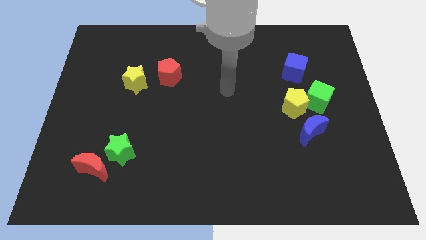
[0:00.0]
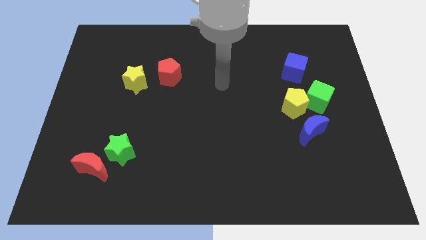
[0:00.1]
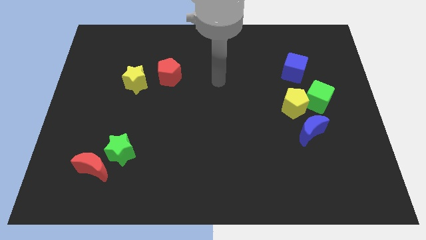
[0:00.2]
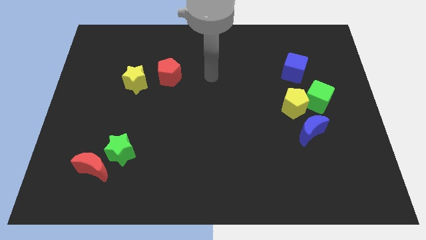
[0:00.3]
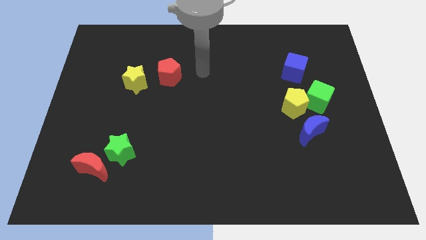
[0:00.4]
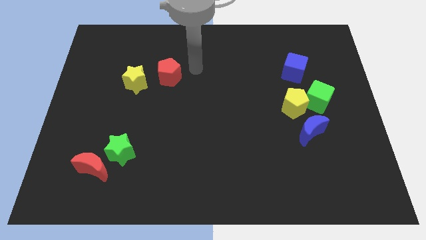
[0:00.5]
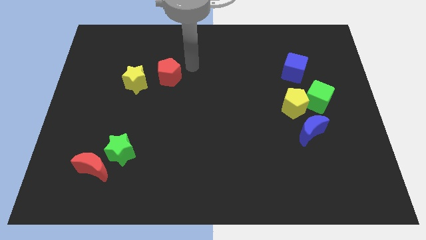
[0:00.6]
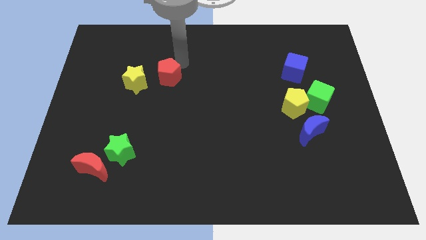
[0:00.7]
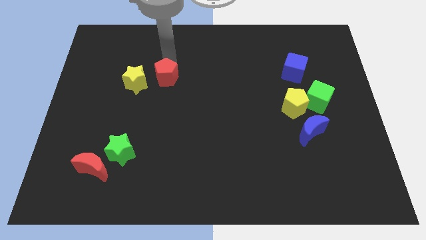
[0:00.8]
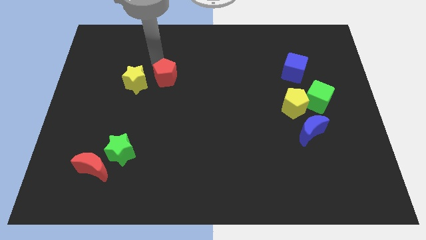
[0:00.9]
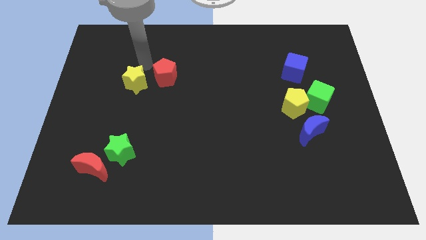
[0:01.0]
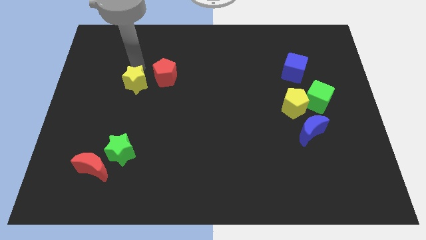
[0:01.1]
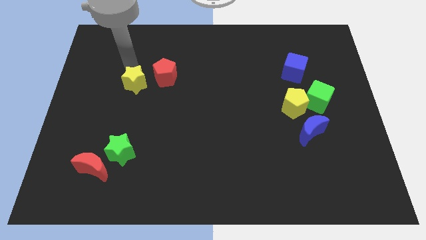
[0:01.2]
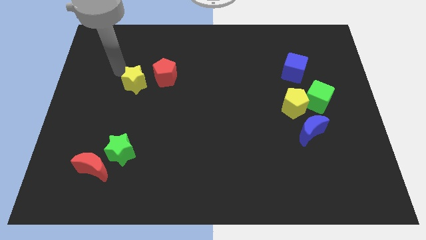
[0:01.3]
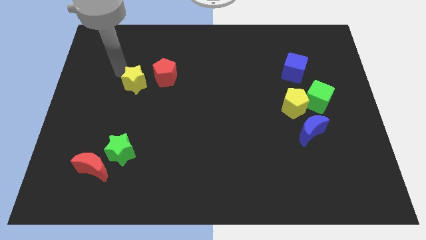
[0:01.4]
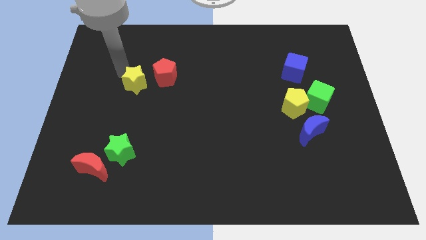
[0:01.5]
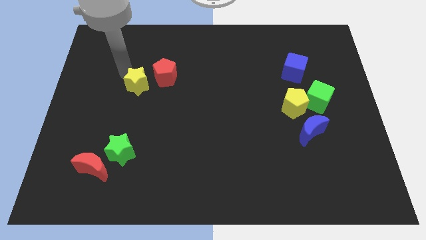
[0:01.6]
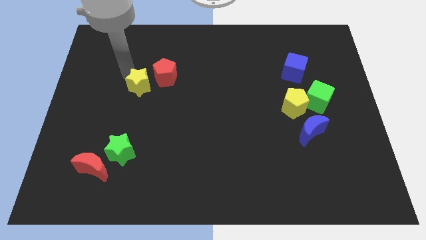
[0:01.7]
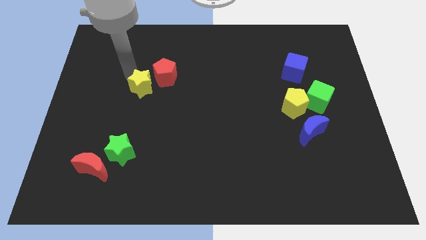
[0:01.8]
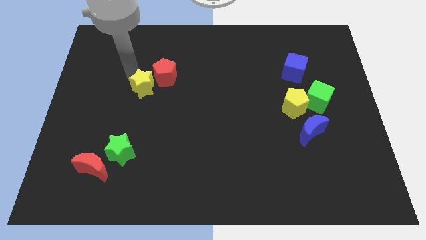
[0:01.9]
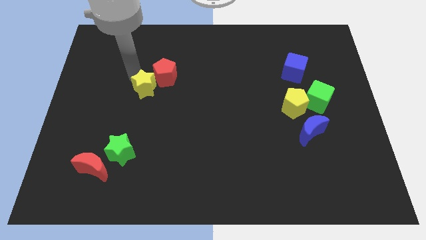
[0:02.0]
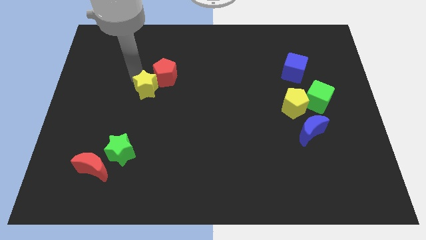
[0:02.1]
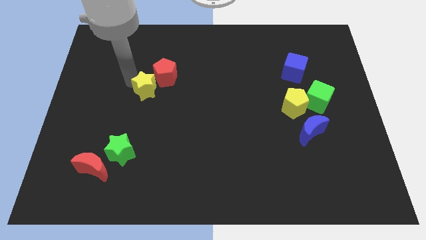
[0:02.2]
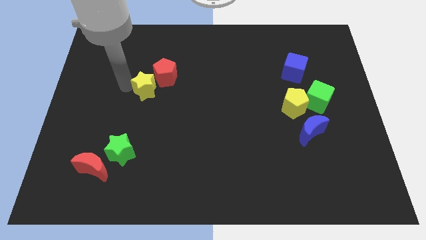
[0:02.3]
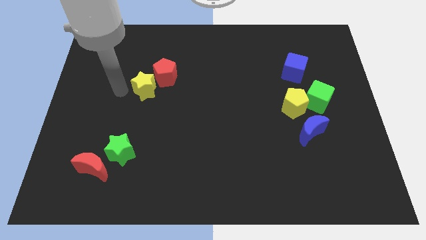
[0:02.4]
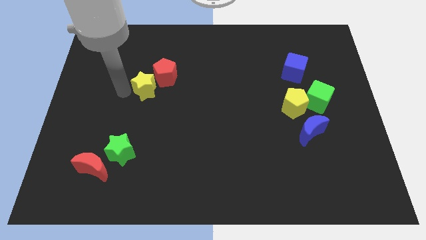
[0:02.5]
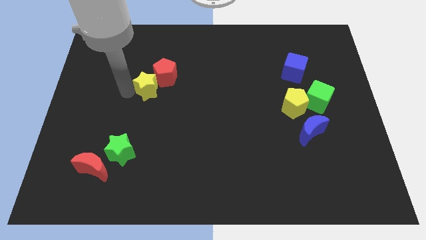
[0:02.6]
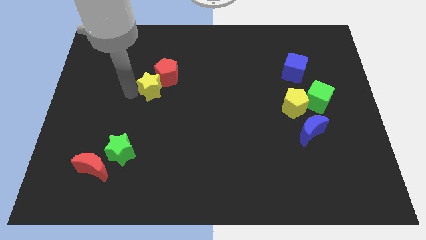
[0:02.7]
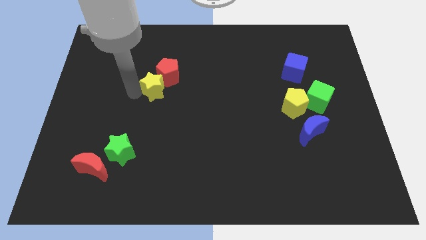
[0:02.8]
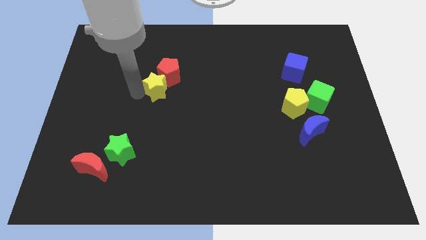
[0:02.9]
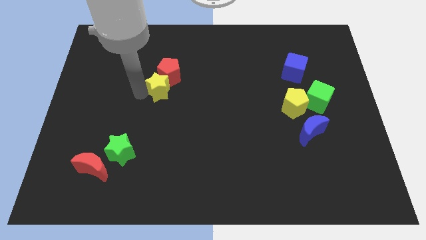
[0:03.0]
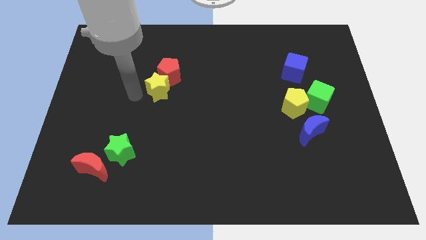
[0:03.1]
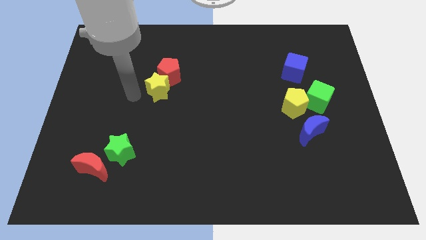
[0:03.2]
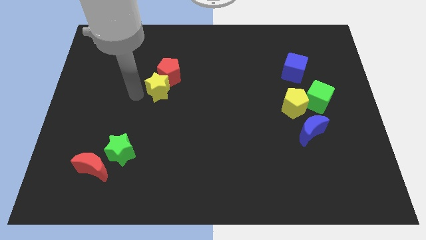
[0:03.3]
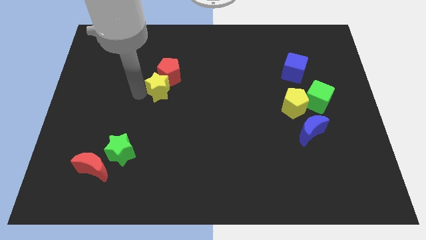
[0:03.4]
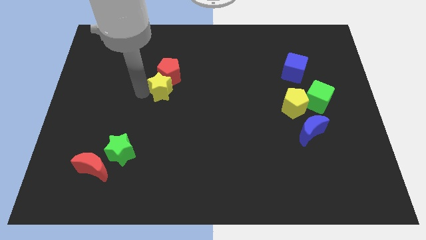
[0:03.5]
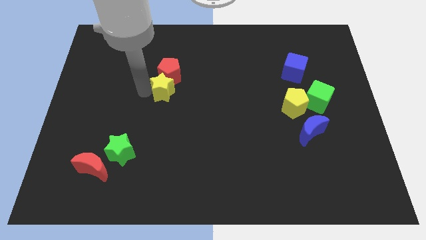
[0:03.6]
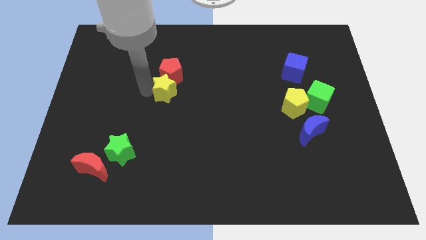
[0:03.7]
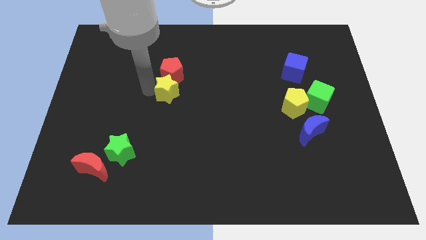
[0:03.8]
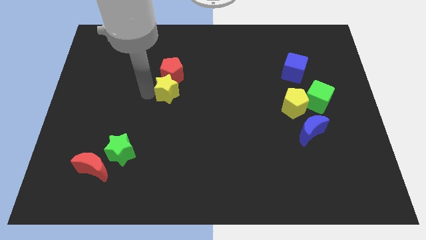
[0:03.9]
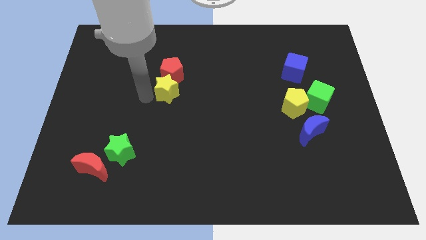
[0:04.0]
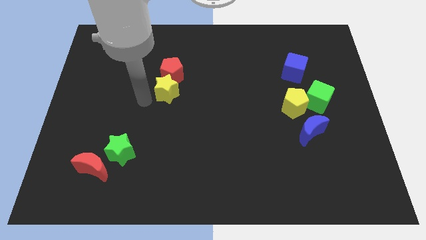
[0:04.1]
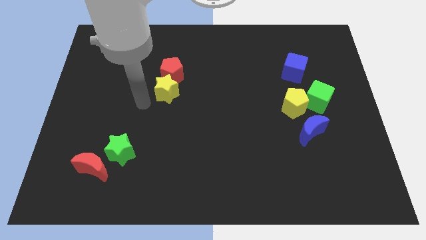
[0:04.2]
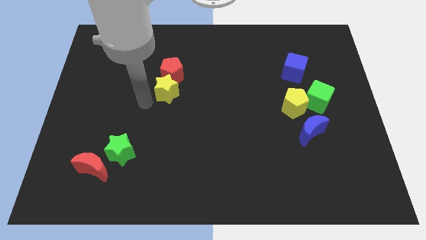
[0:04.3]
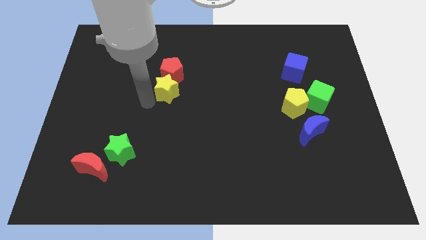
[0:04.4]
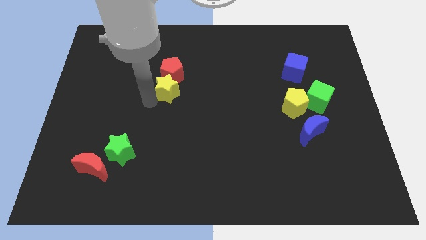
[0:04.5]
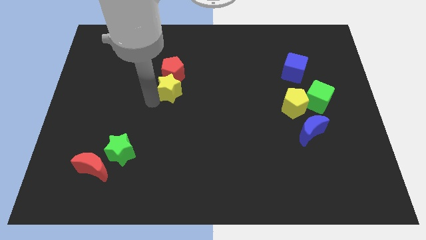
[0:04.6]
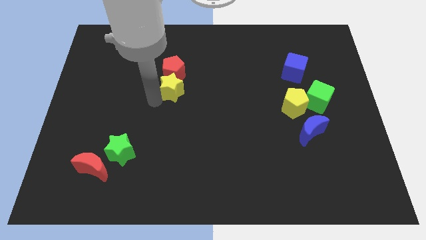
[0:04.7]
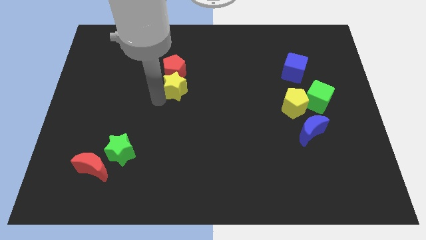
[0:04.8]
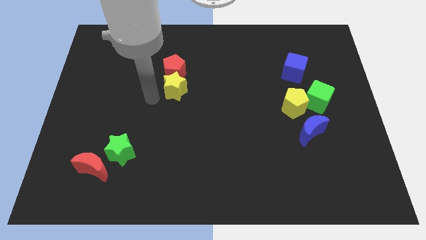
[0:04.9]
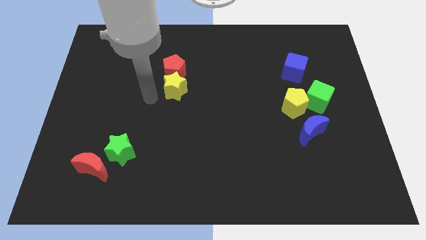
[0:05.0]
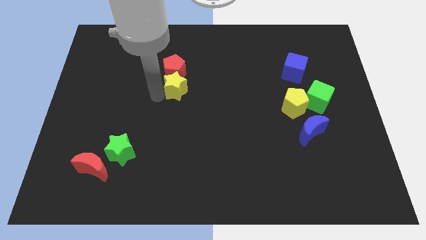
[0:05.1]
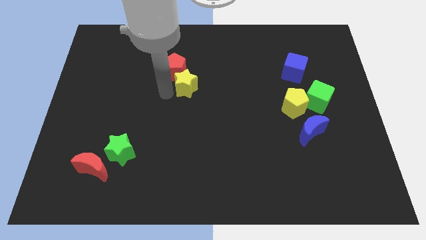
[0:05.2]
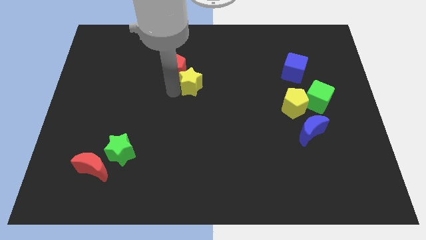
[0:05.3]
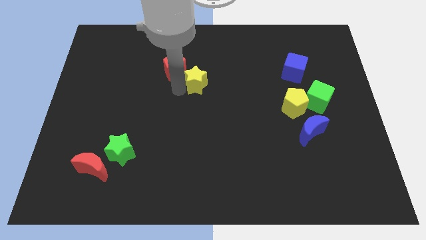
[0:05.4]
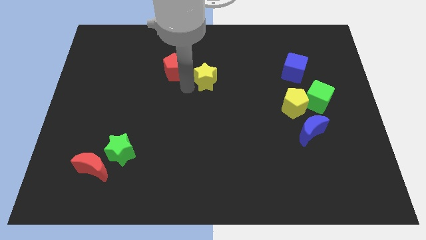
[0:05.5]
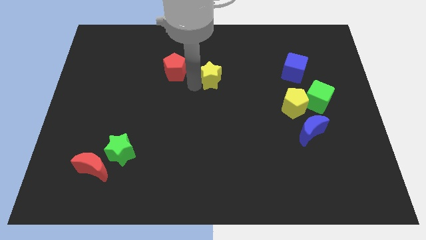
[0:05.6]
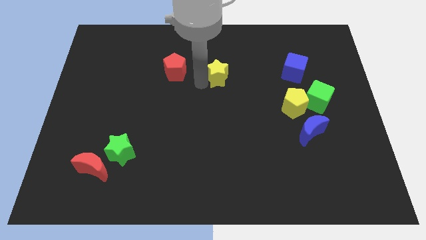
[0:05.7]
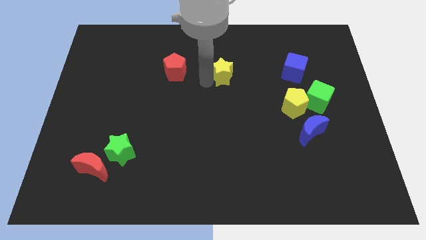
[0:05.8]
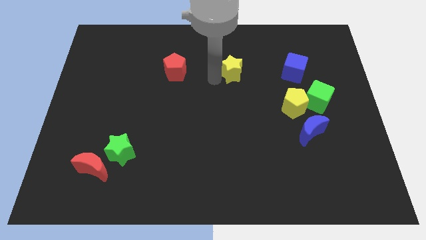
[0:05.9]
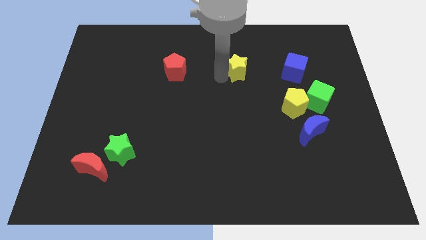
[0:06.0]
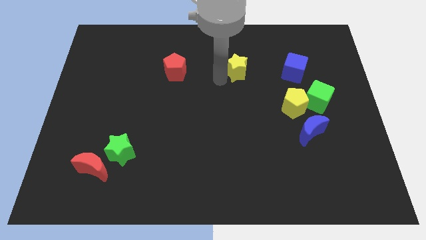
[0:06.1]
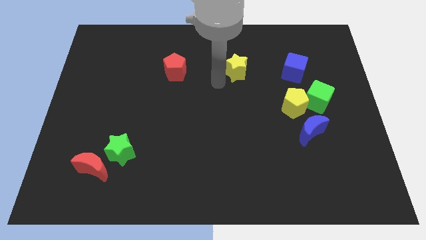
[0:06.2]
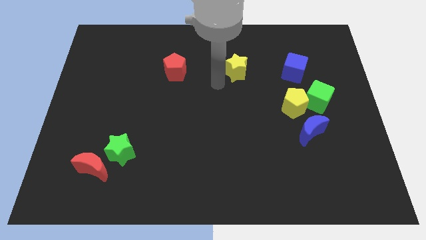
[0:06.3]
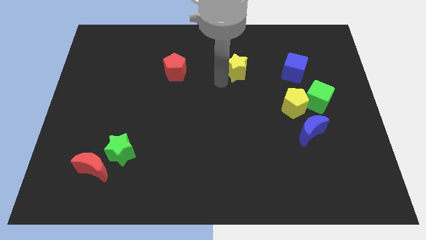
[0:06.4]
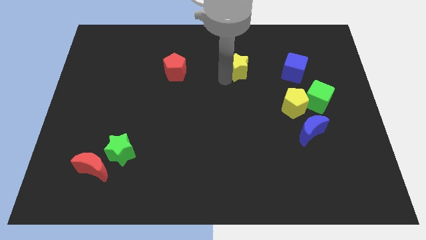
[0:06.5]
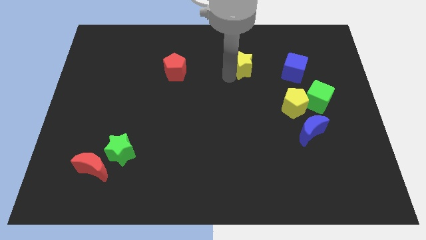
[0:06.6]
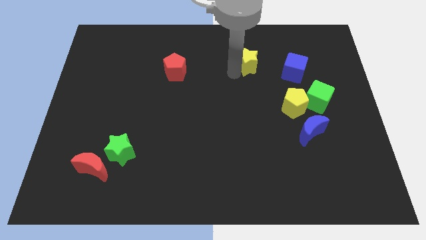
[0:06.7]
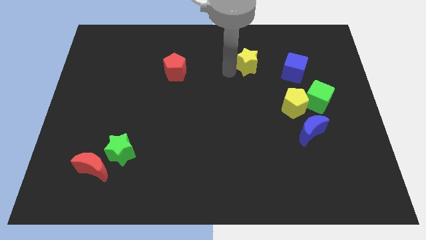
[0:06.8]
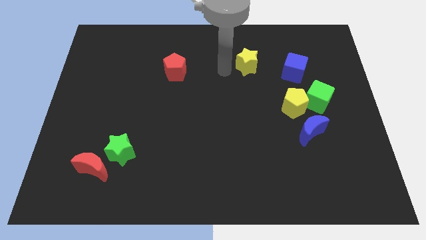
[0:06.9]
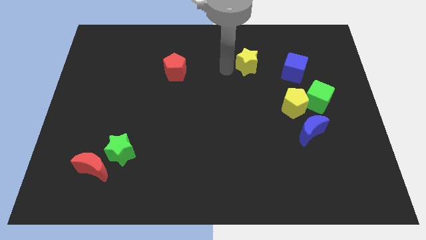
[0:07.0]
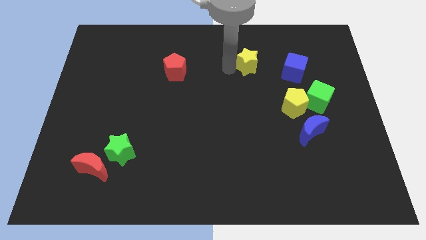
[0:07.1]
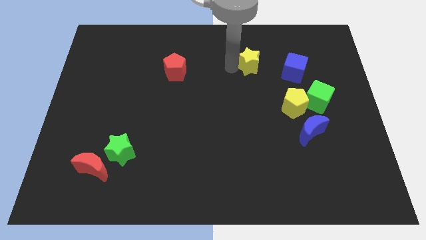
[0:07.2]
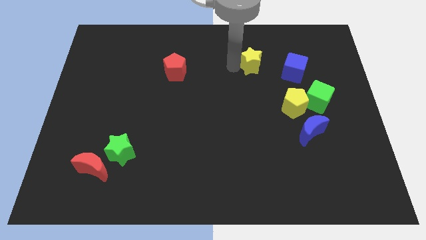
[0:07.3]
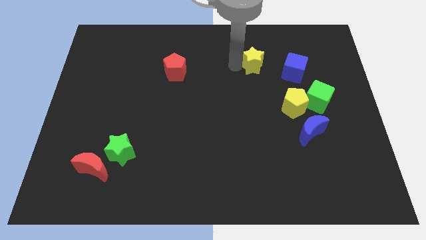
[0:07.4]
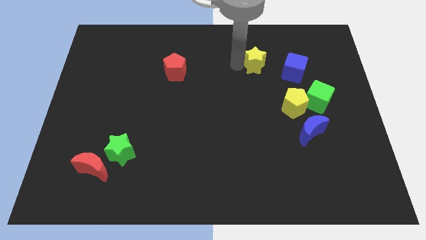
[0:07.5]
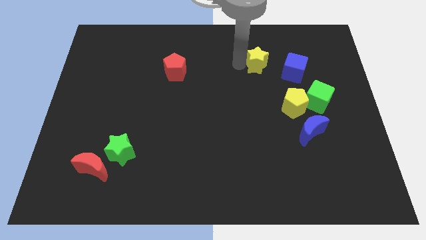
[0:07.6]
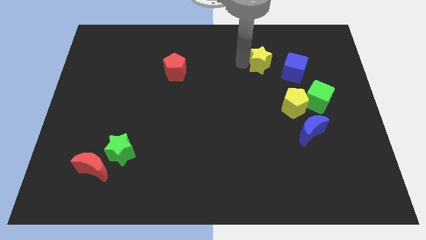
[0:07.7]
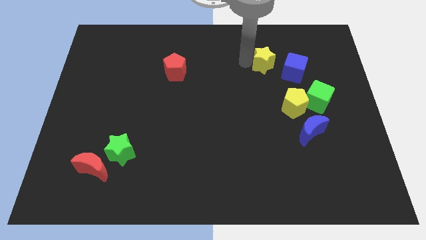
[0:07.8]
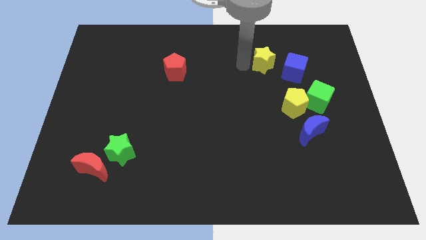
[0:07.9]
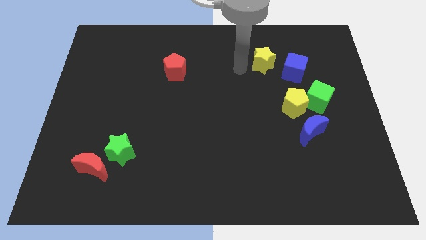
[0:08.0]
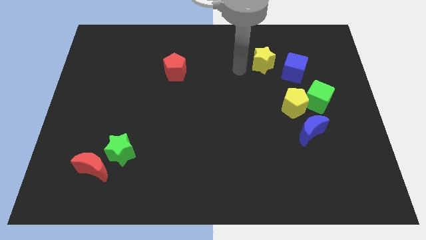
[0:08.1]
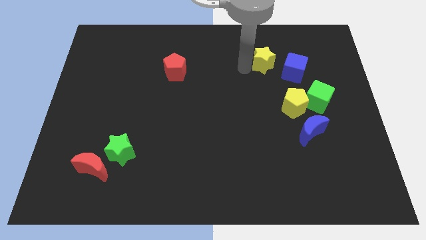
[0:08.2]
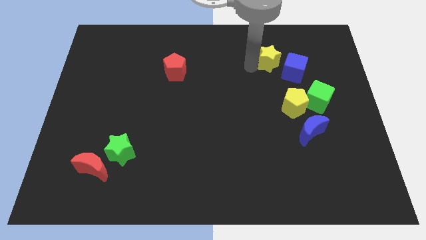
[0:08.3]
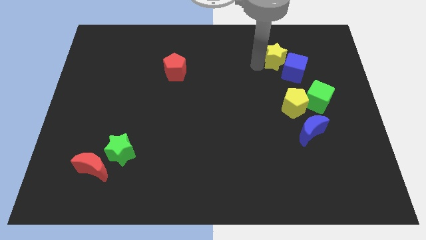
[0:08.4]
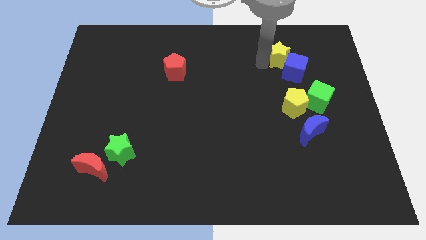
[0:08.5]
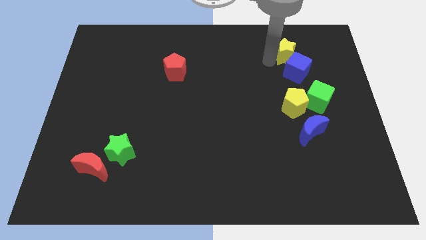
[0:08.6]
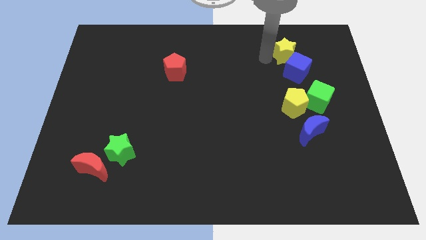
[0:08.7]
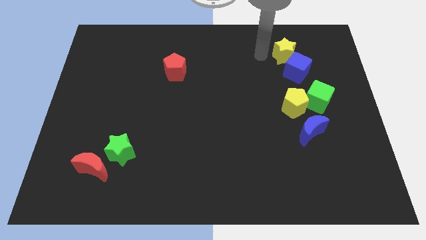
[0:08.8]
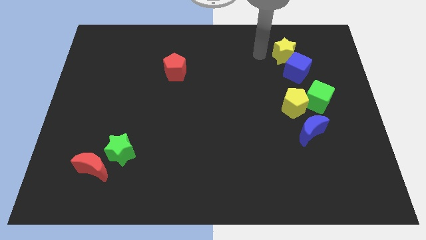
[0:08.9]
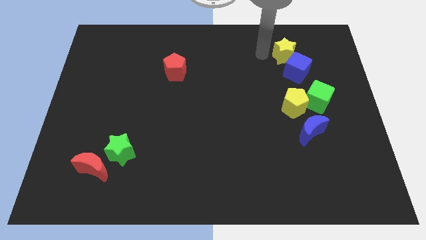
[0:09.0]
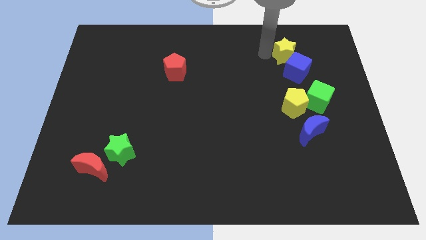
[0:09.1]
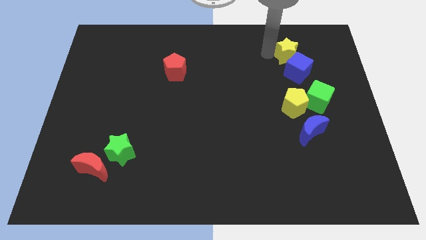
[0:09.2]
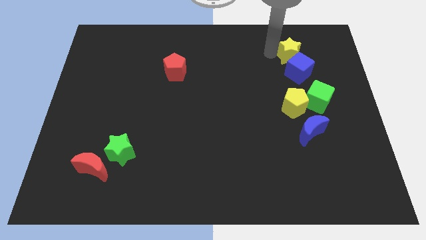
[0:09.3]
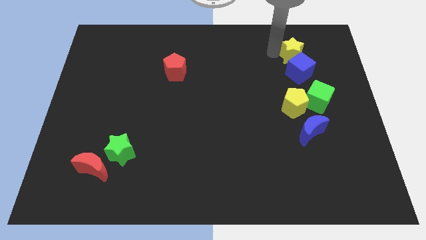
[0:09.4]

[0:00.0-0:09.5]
push the yellow star diagonally up and to the right of the blue cube
